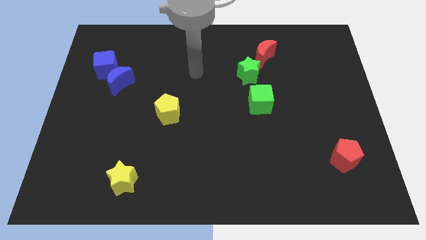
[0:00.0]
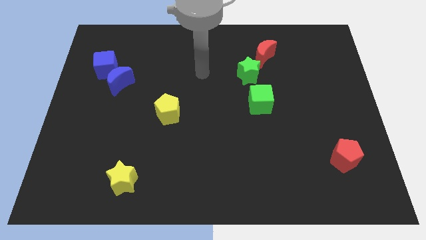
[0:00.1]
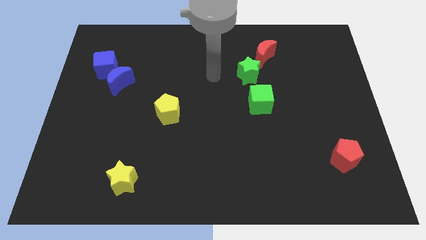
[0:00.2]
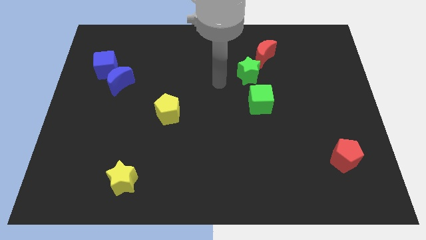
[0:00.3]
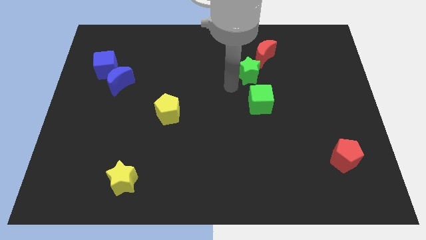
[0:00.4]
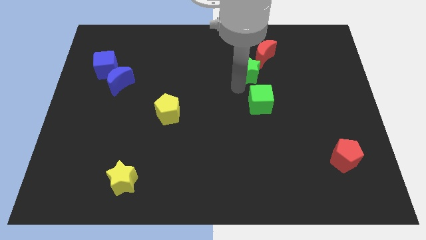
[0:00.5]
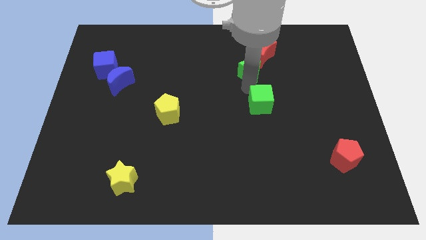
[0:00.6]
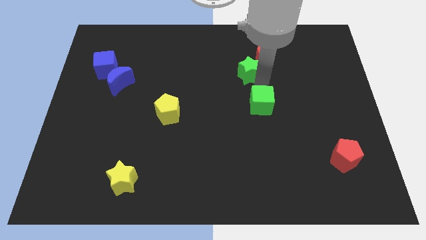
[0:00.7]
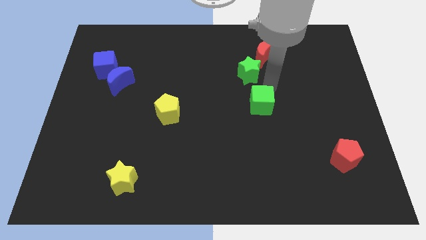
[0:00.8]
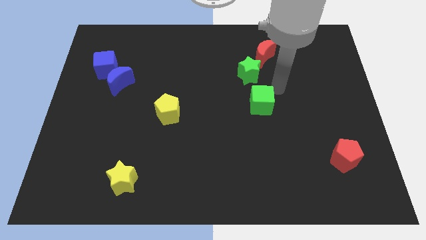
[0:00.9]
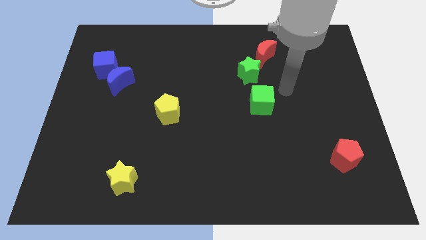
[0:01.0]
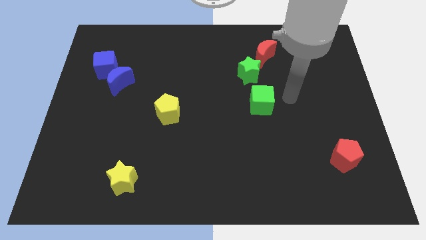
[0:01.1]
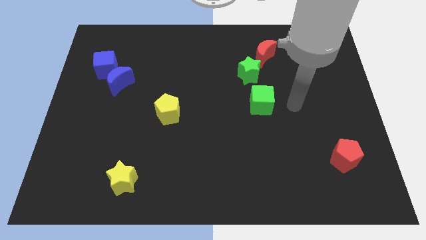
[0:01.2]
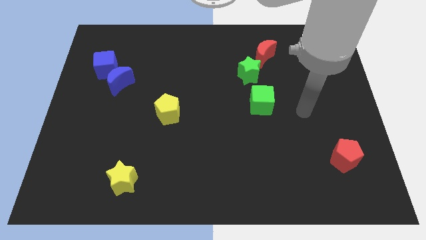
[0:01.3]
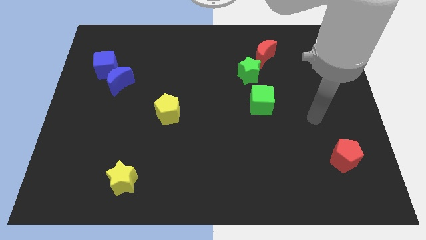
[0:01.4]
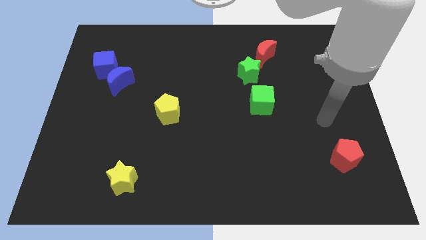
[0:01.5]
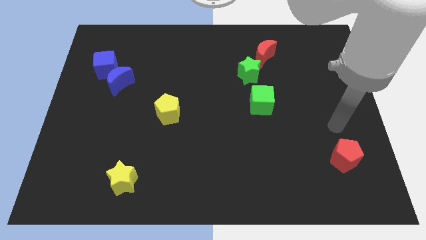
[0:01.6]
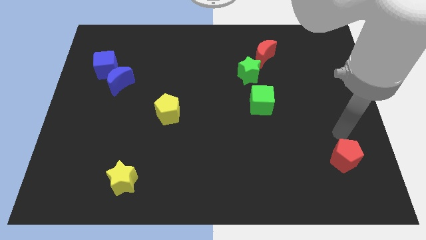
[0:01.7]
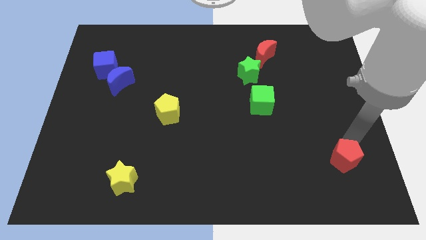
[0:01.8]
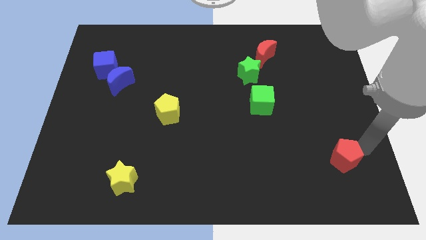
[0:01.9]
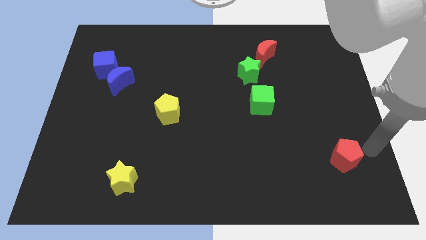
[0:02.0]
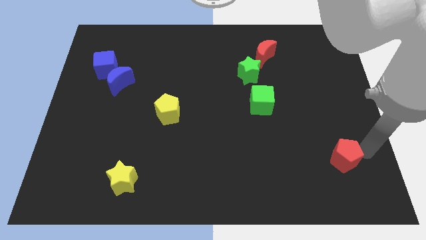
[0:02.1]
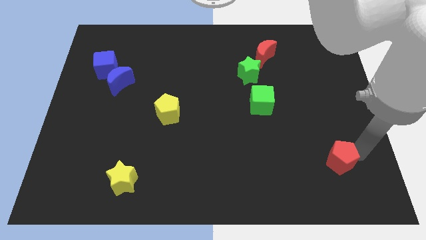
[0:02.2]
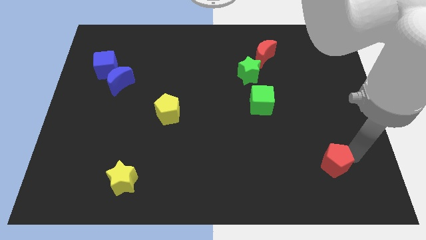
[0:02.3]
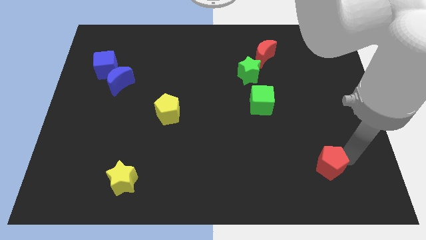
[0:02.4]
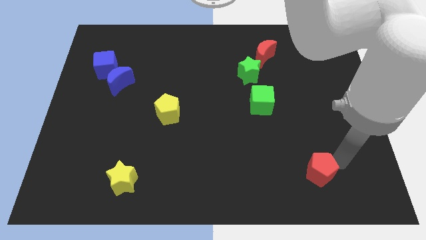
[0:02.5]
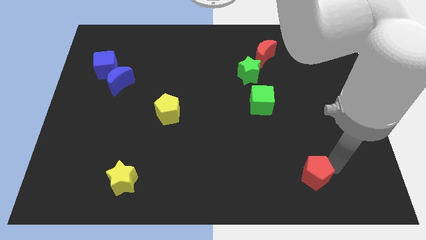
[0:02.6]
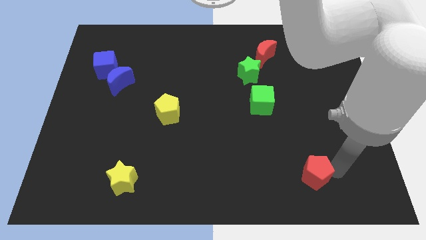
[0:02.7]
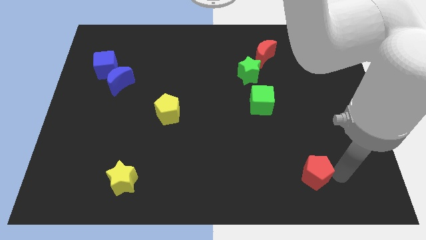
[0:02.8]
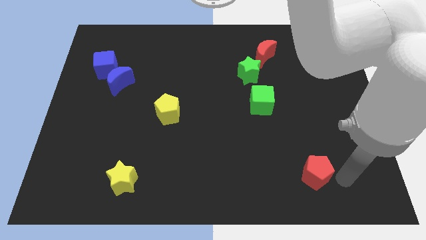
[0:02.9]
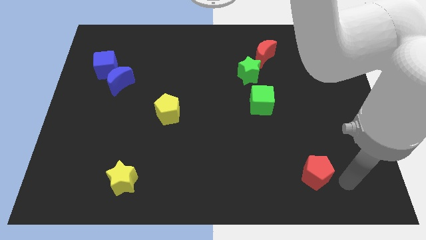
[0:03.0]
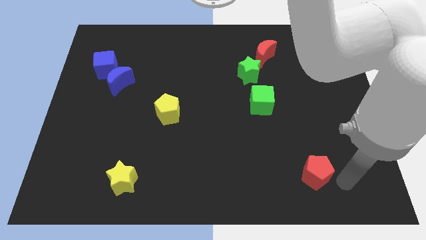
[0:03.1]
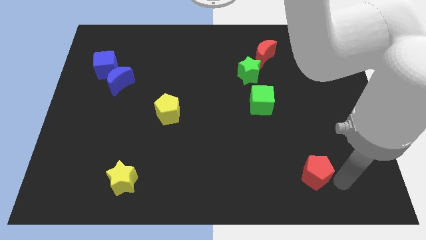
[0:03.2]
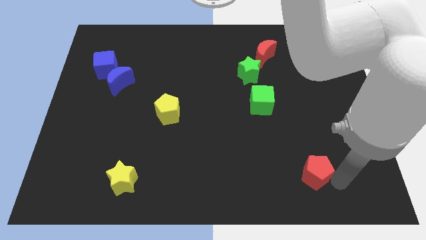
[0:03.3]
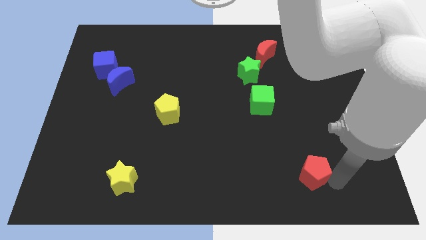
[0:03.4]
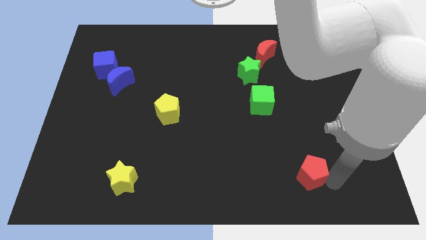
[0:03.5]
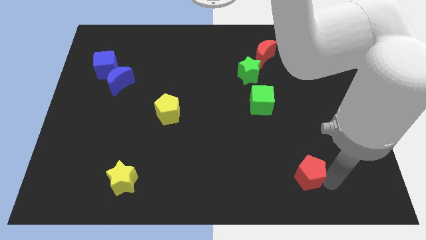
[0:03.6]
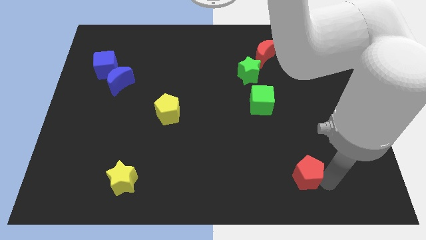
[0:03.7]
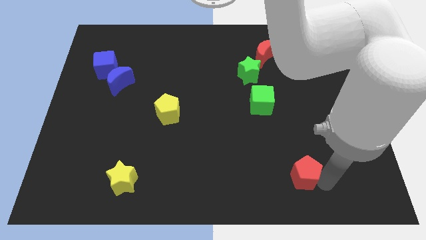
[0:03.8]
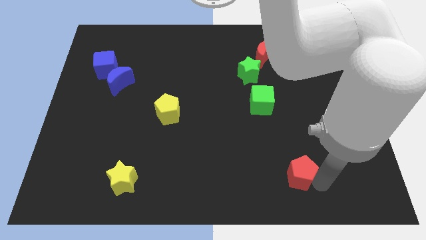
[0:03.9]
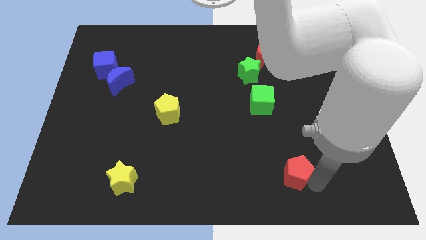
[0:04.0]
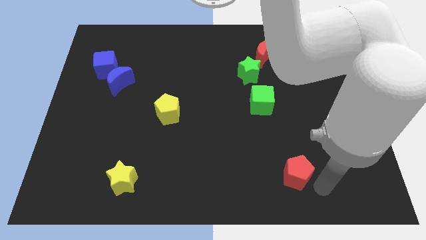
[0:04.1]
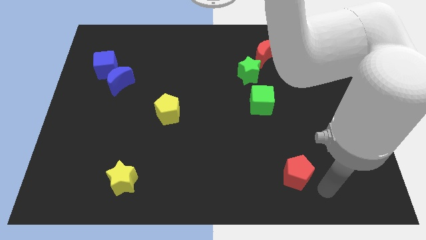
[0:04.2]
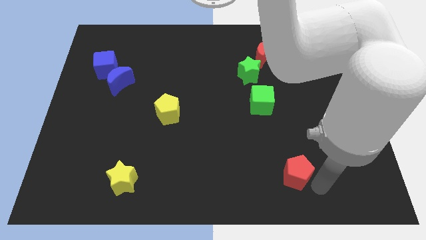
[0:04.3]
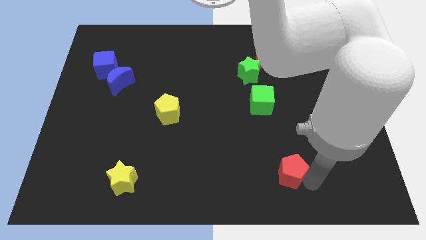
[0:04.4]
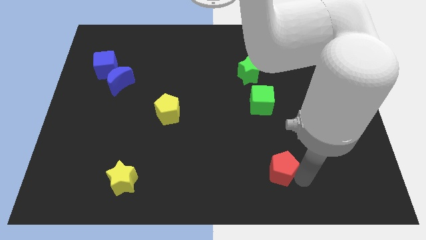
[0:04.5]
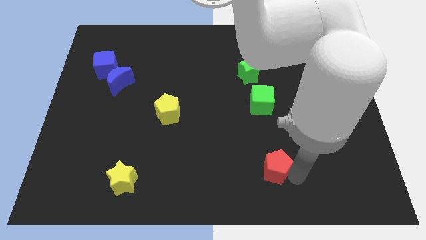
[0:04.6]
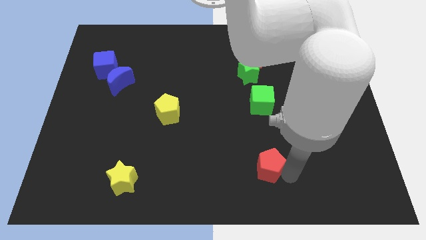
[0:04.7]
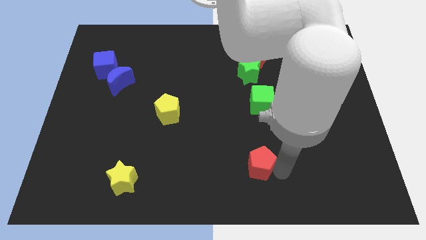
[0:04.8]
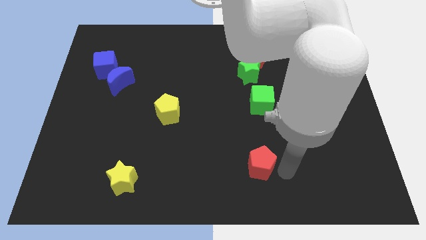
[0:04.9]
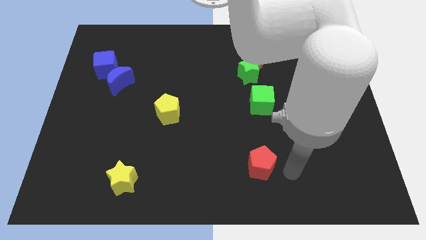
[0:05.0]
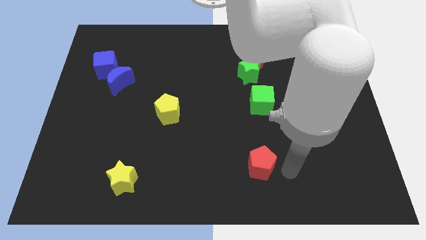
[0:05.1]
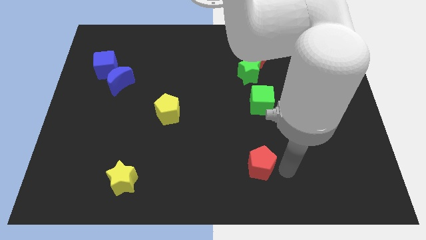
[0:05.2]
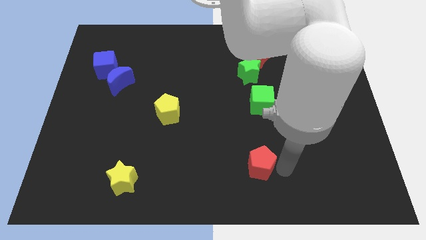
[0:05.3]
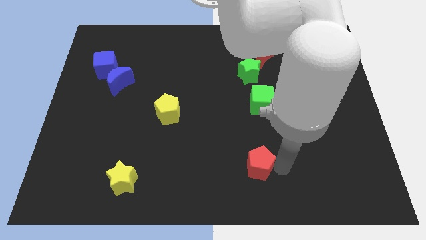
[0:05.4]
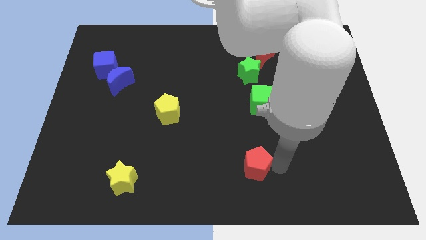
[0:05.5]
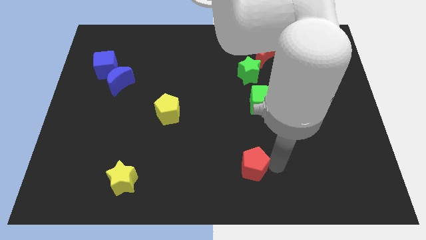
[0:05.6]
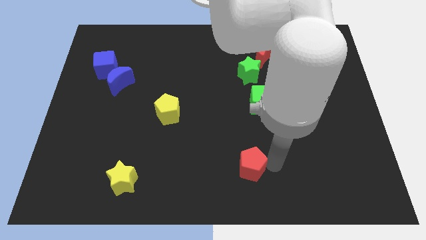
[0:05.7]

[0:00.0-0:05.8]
move the red pentagon left

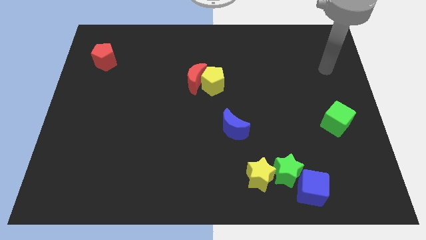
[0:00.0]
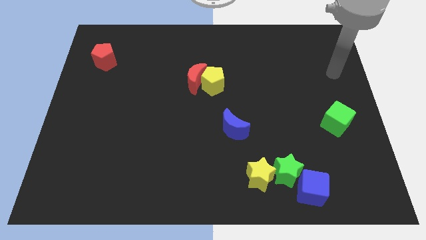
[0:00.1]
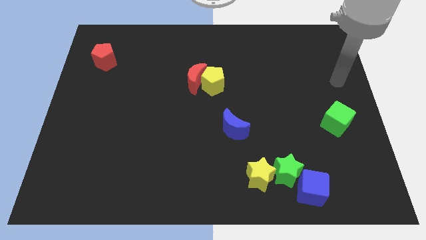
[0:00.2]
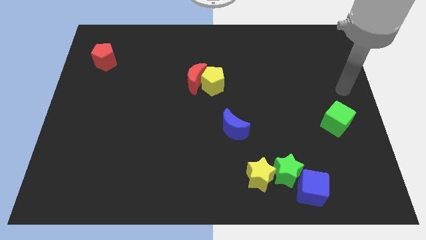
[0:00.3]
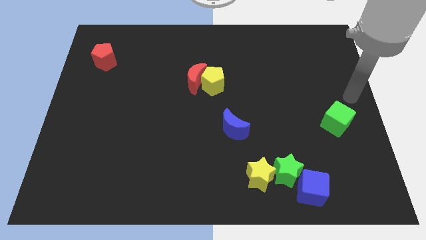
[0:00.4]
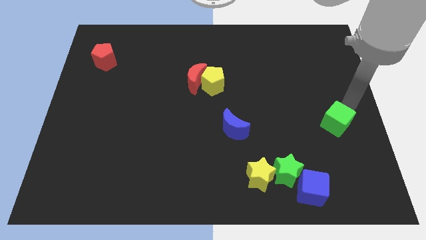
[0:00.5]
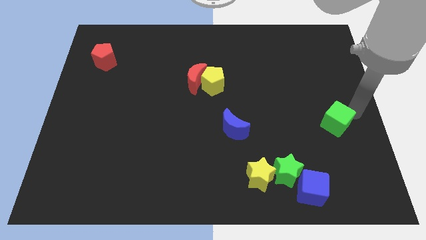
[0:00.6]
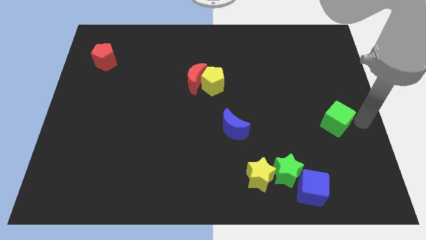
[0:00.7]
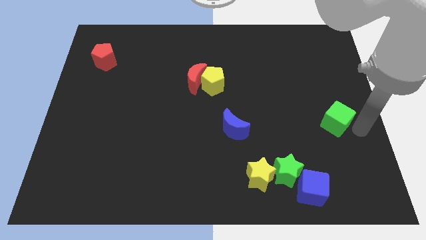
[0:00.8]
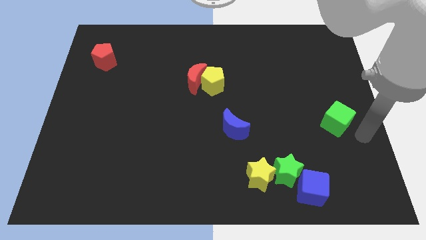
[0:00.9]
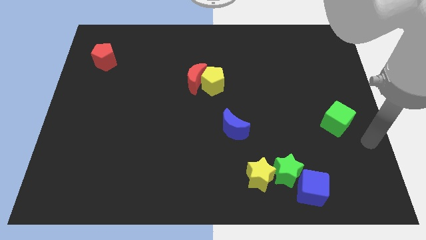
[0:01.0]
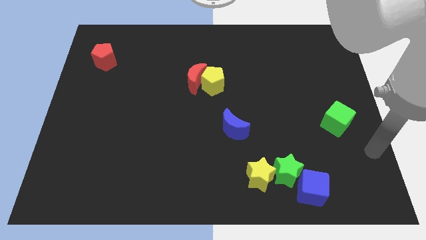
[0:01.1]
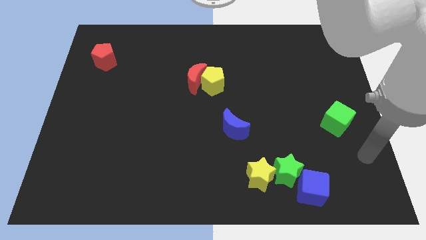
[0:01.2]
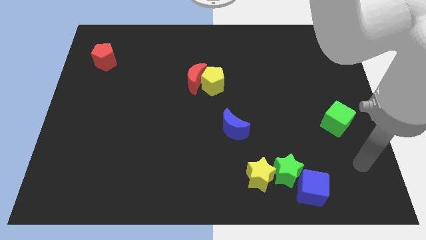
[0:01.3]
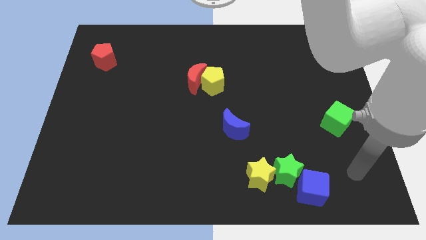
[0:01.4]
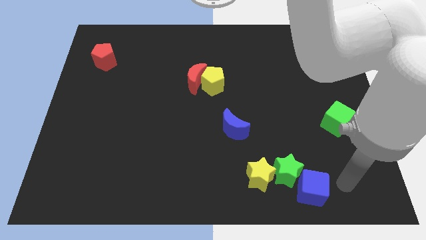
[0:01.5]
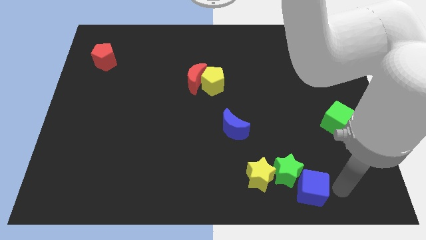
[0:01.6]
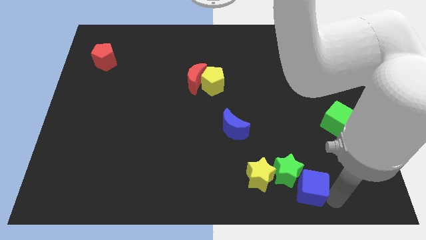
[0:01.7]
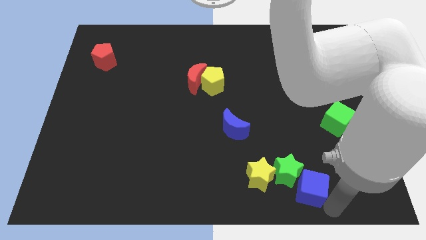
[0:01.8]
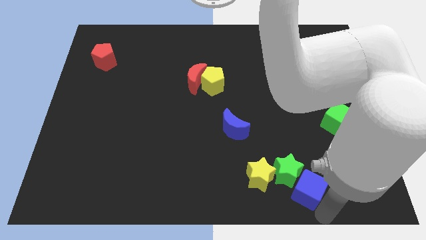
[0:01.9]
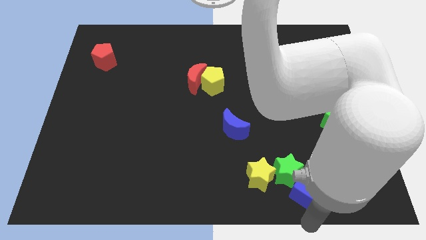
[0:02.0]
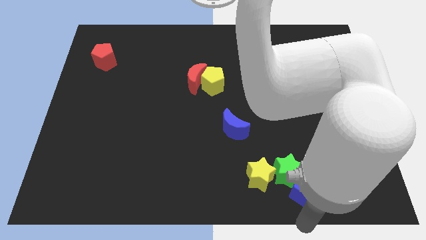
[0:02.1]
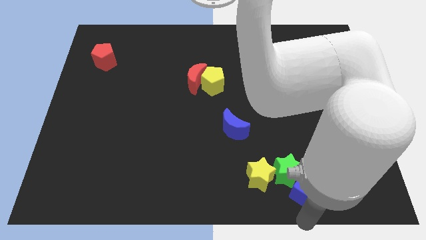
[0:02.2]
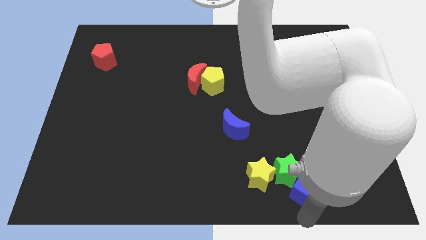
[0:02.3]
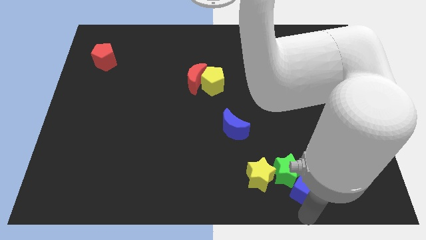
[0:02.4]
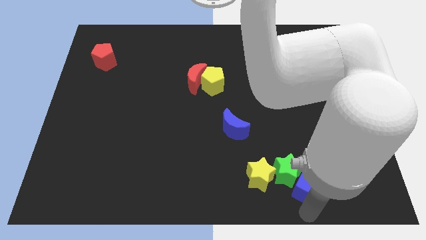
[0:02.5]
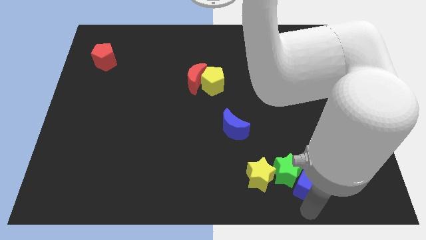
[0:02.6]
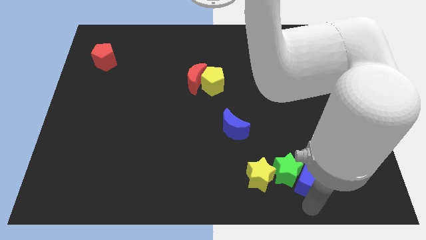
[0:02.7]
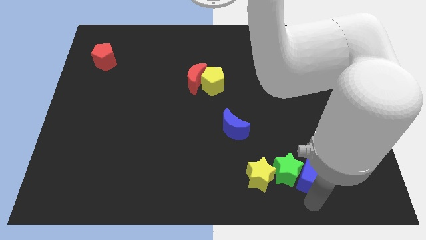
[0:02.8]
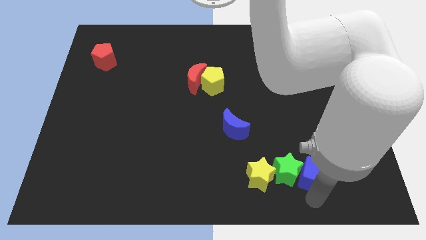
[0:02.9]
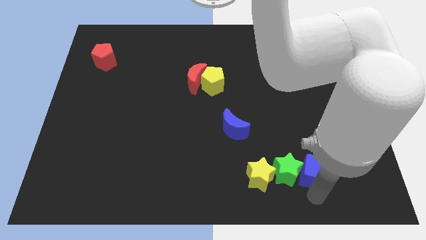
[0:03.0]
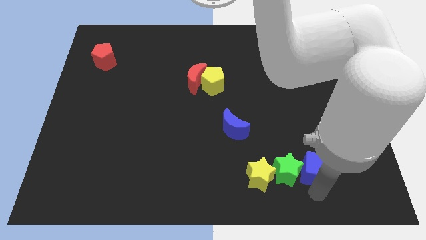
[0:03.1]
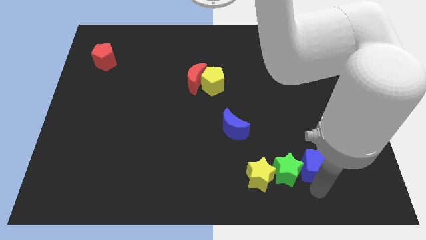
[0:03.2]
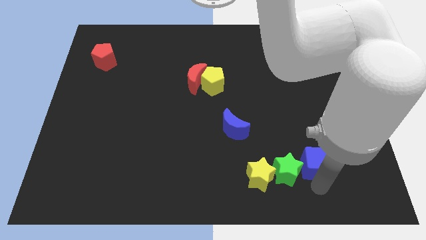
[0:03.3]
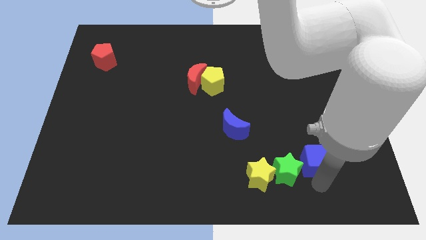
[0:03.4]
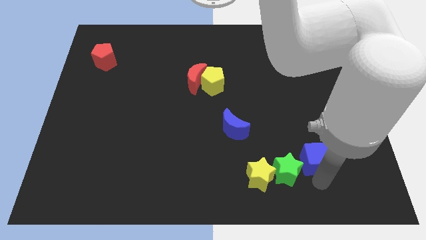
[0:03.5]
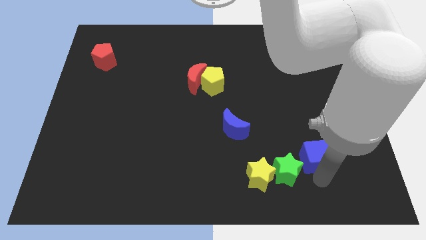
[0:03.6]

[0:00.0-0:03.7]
slightly move the blue cube upwards
